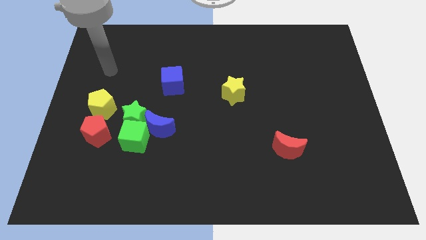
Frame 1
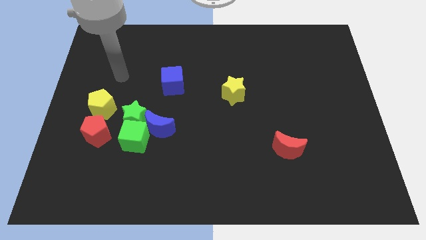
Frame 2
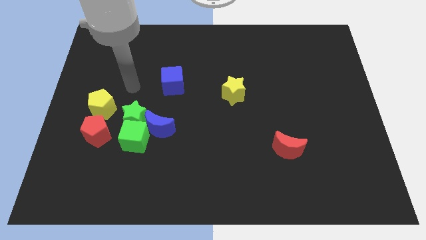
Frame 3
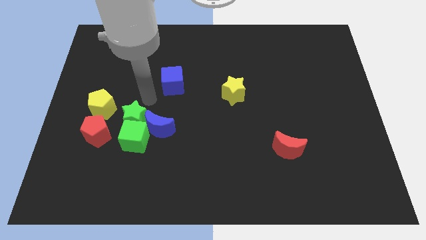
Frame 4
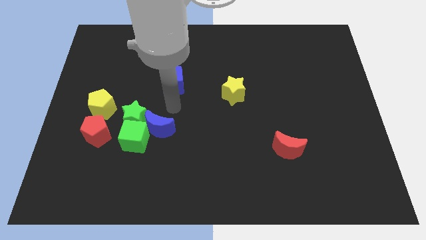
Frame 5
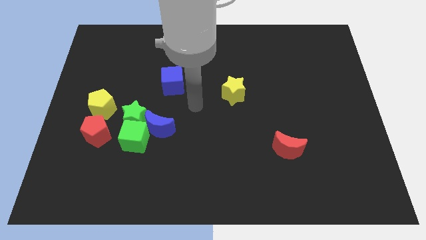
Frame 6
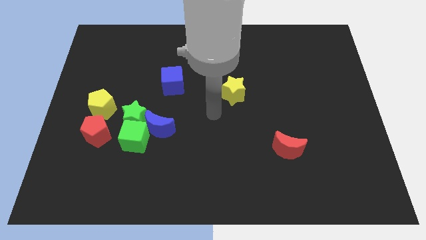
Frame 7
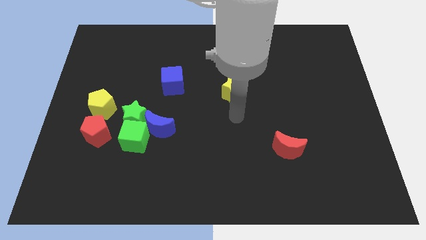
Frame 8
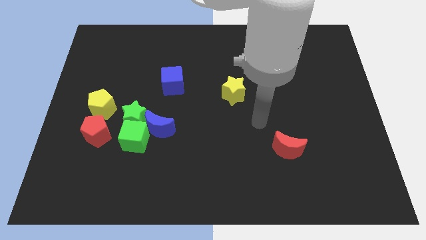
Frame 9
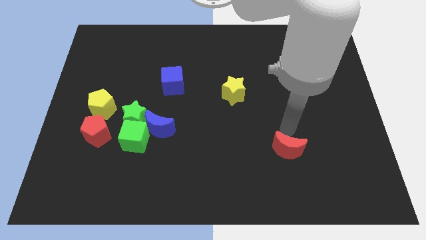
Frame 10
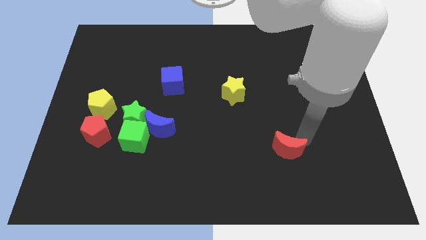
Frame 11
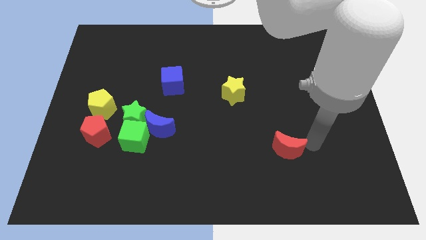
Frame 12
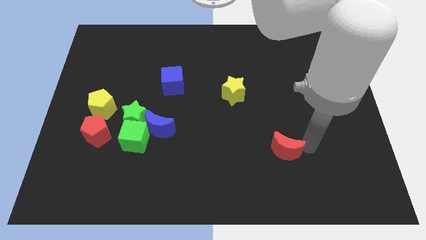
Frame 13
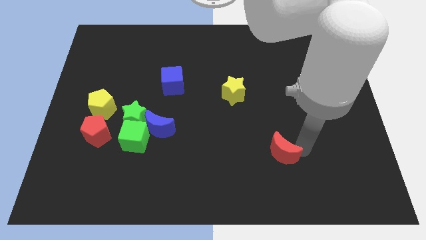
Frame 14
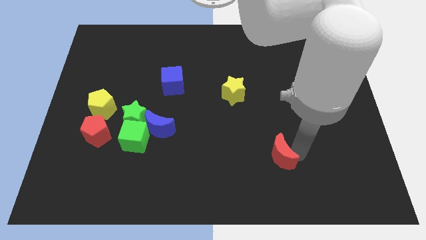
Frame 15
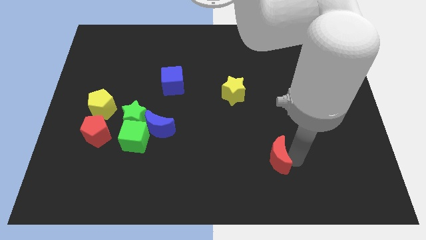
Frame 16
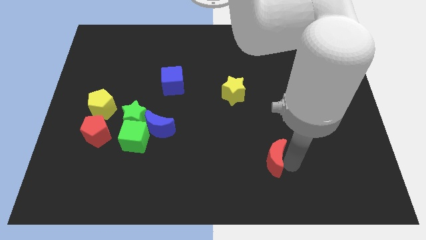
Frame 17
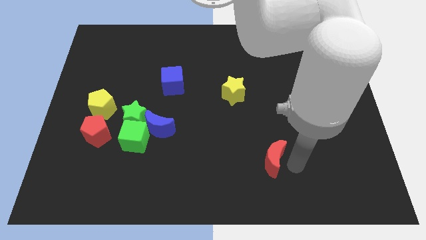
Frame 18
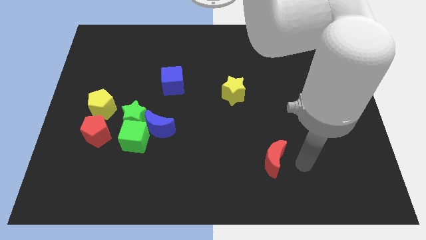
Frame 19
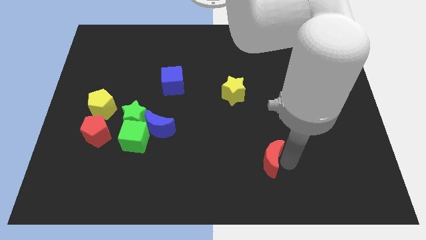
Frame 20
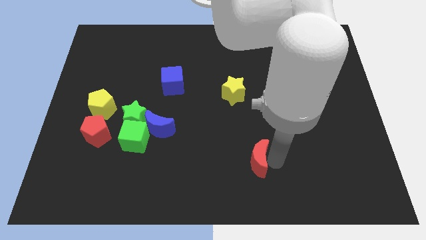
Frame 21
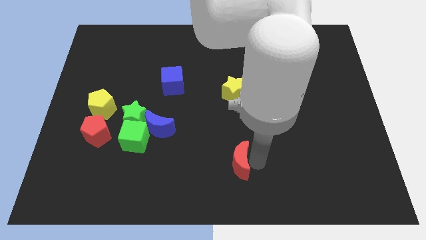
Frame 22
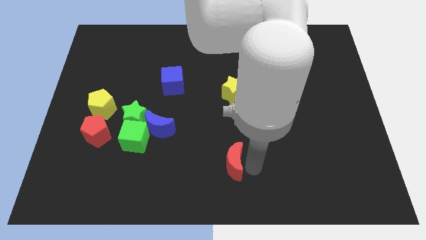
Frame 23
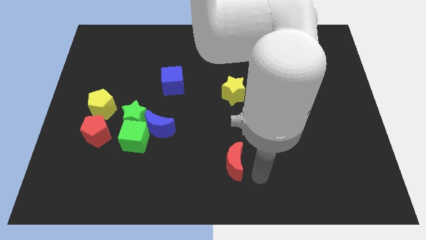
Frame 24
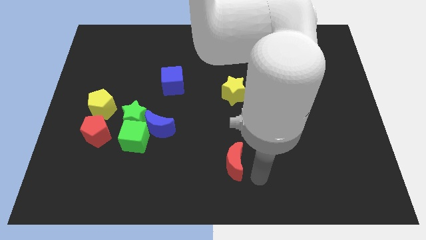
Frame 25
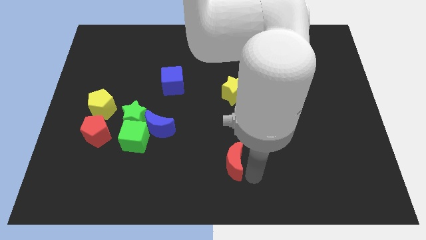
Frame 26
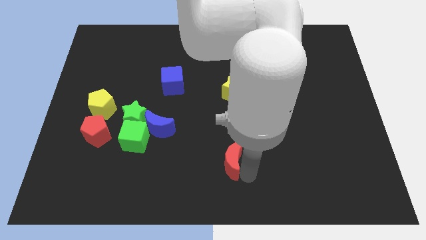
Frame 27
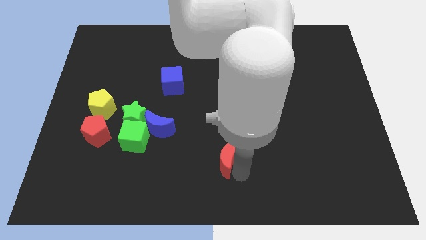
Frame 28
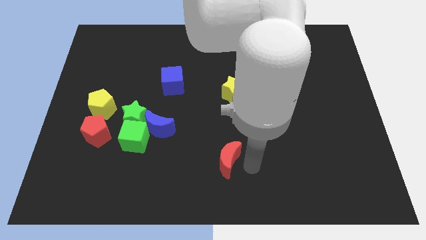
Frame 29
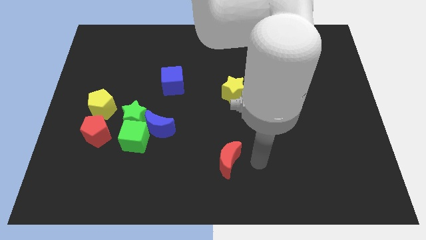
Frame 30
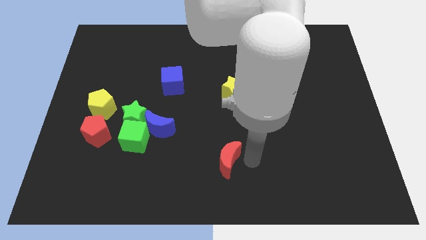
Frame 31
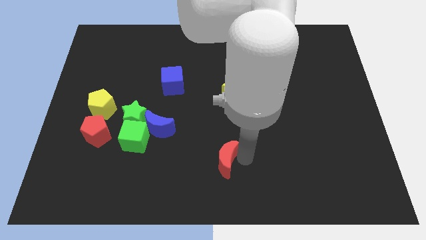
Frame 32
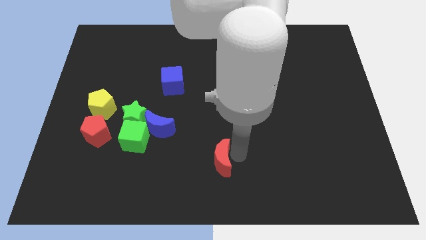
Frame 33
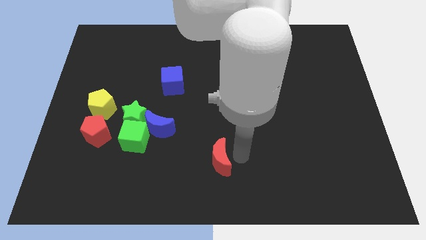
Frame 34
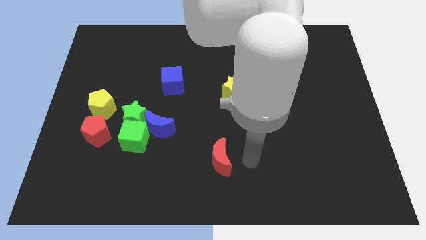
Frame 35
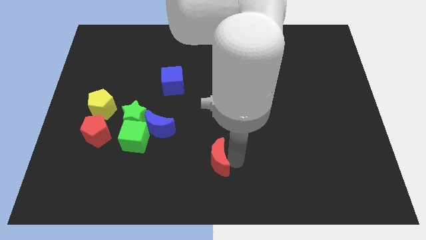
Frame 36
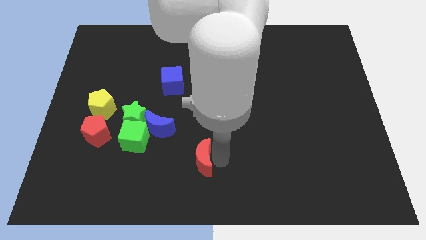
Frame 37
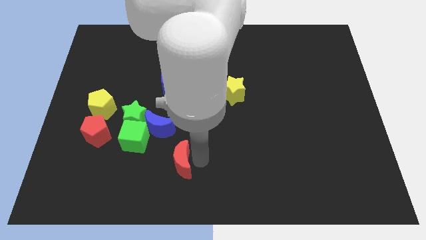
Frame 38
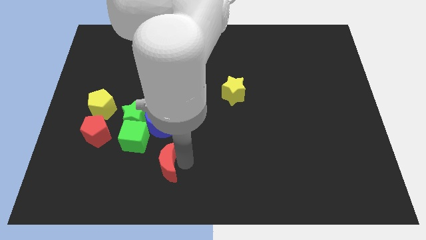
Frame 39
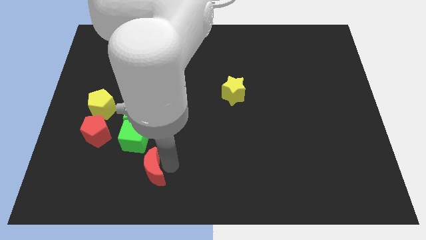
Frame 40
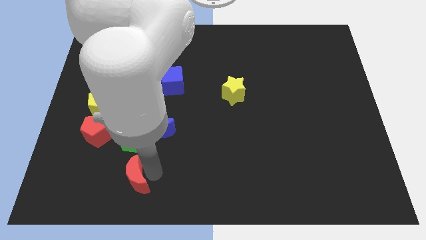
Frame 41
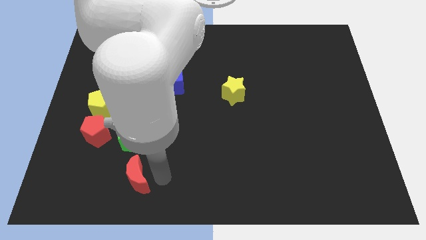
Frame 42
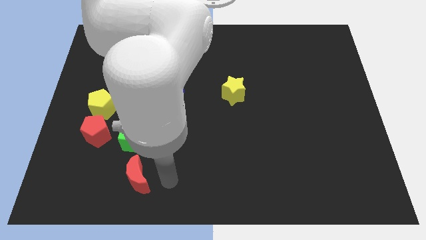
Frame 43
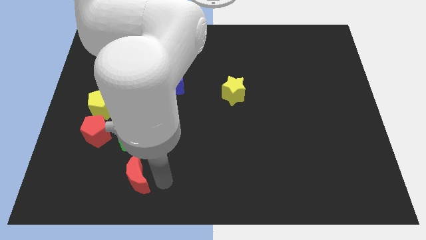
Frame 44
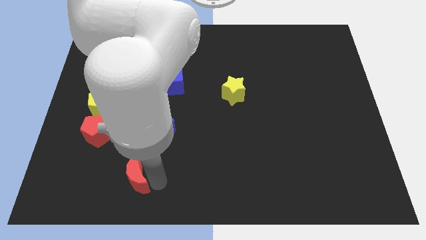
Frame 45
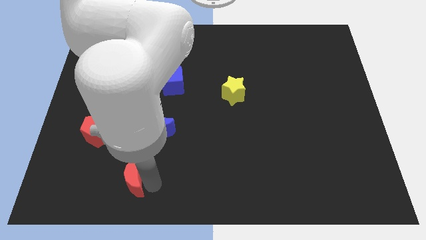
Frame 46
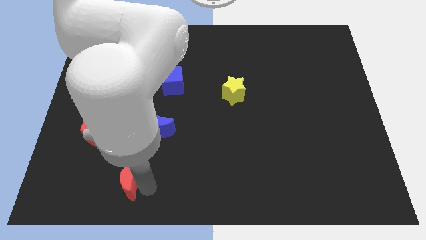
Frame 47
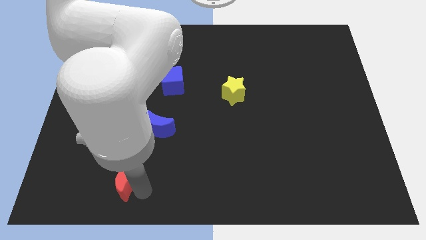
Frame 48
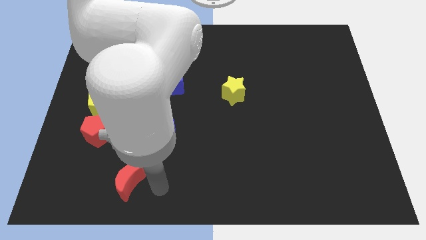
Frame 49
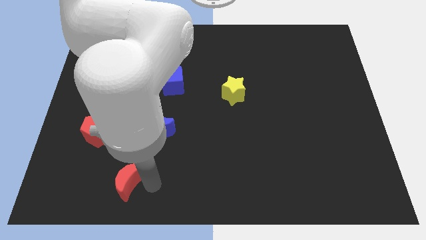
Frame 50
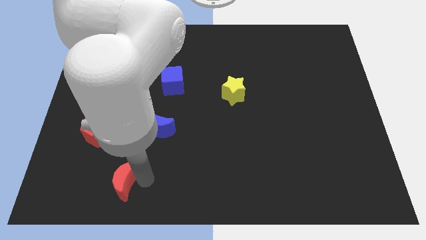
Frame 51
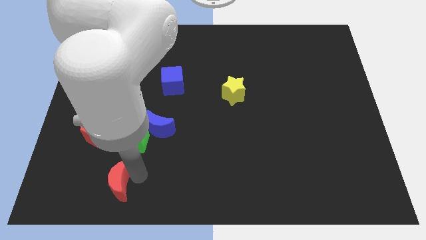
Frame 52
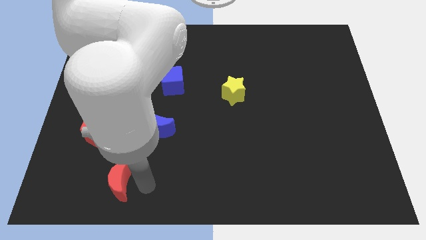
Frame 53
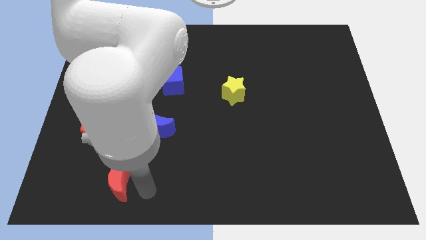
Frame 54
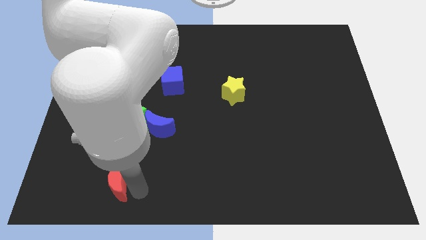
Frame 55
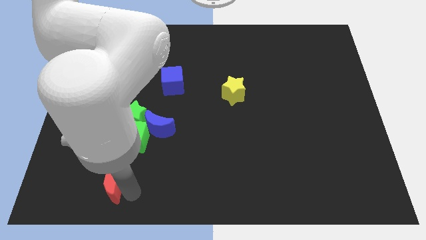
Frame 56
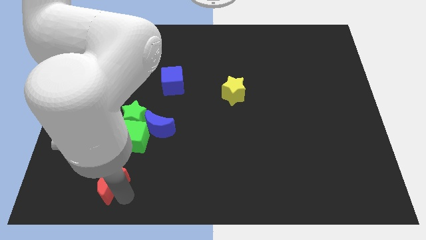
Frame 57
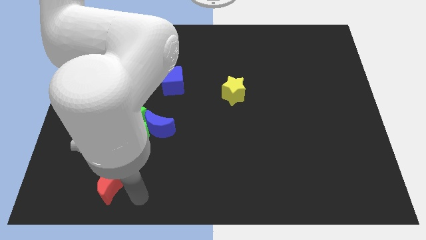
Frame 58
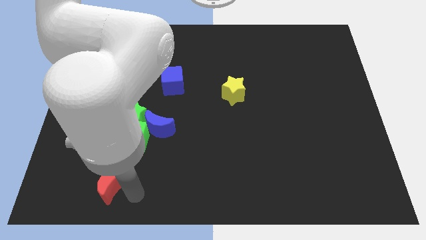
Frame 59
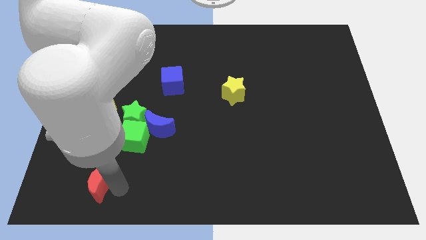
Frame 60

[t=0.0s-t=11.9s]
push the red moon below the red pentagon
